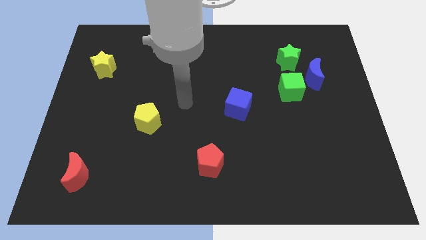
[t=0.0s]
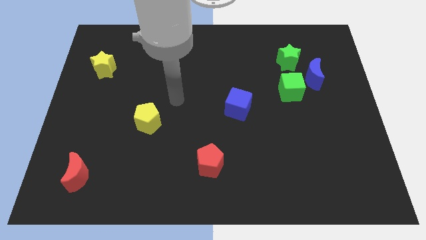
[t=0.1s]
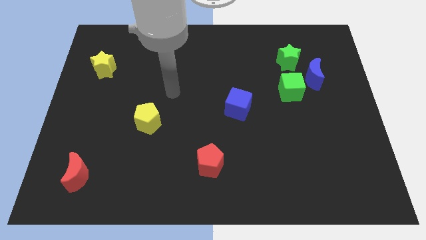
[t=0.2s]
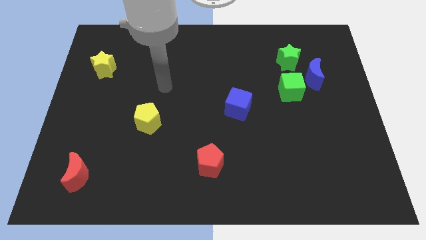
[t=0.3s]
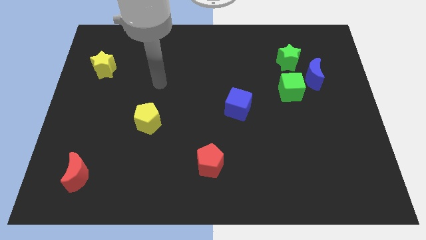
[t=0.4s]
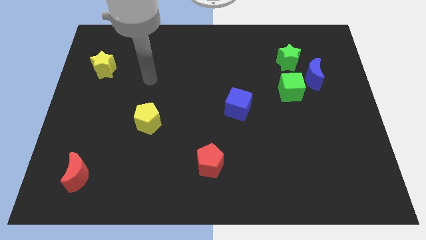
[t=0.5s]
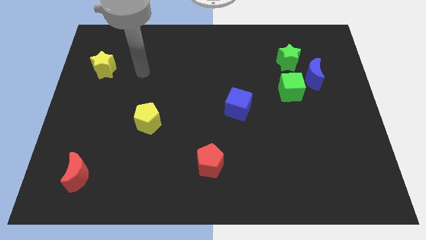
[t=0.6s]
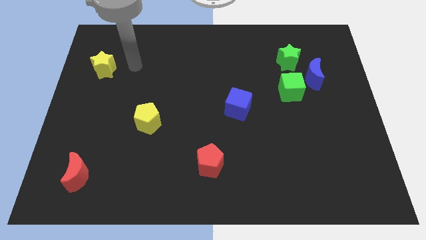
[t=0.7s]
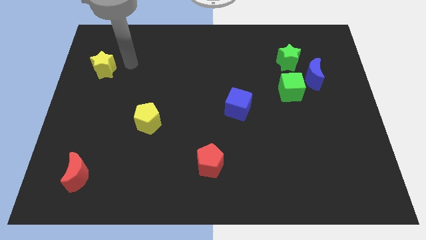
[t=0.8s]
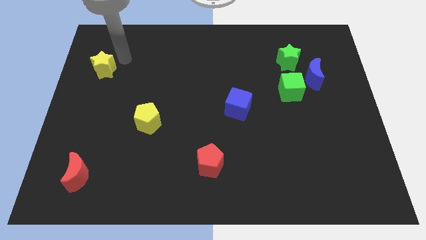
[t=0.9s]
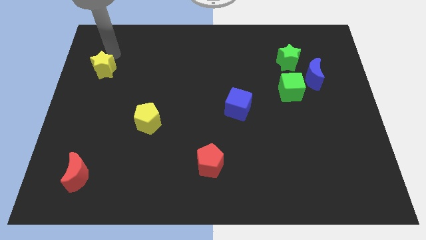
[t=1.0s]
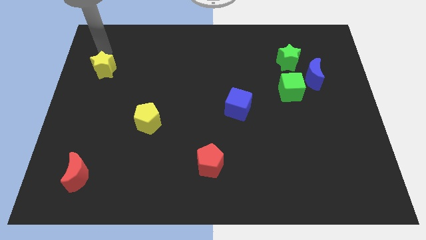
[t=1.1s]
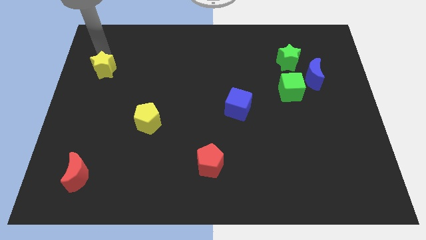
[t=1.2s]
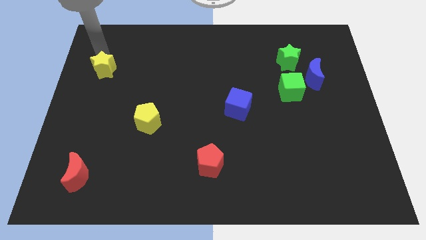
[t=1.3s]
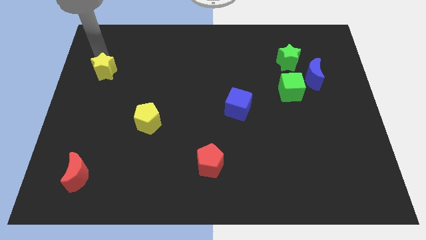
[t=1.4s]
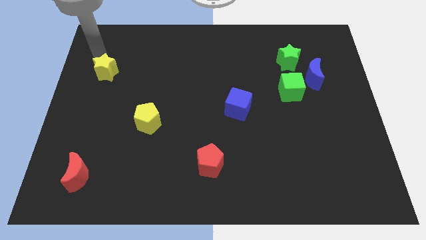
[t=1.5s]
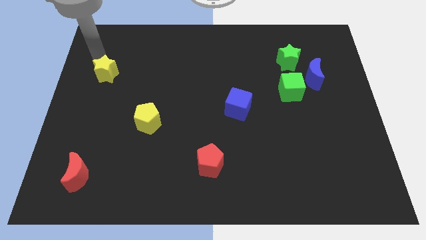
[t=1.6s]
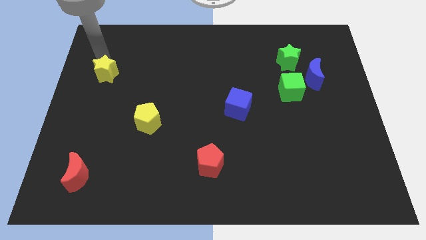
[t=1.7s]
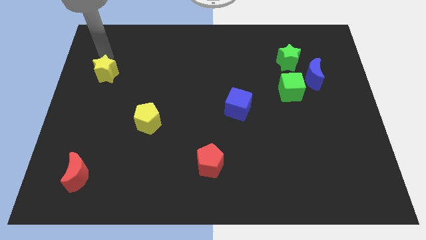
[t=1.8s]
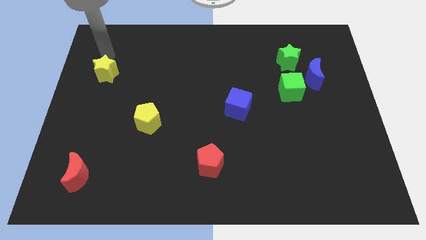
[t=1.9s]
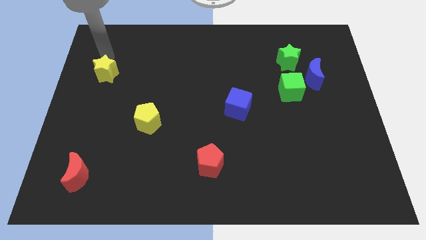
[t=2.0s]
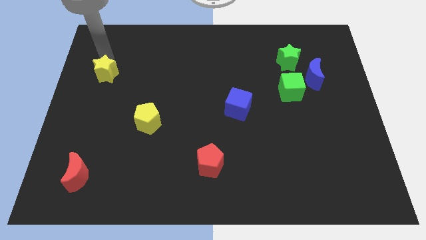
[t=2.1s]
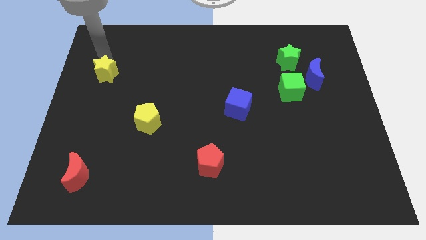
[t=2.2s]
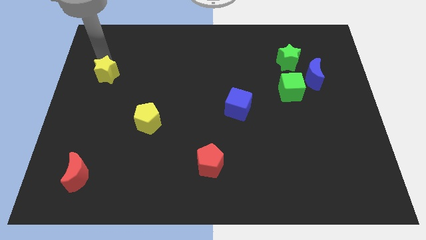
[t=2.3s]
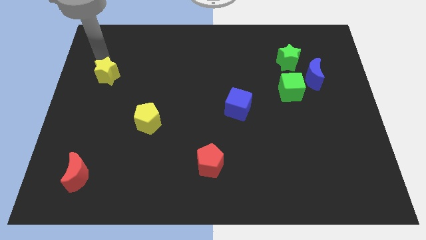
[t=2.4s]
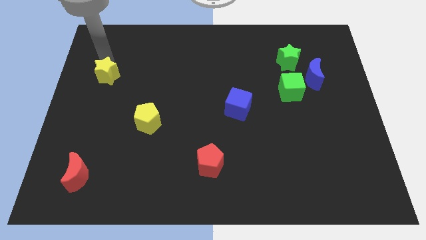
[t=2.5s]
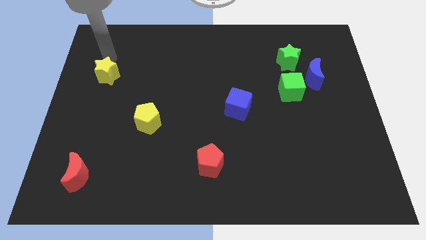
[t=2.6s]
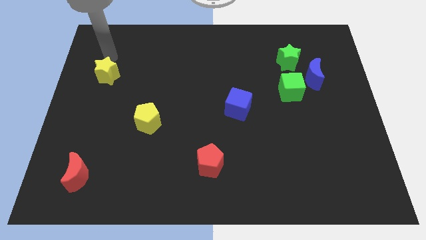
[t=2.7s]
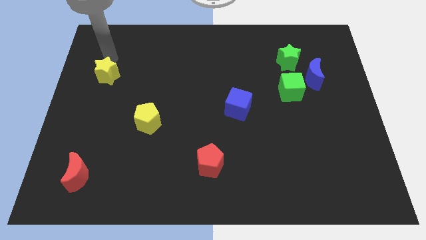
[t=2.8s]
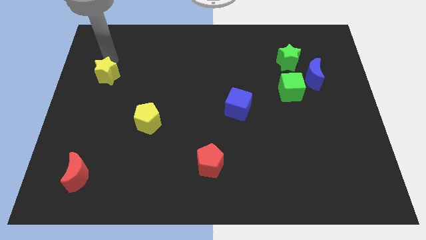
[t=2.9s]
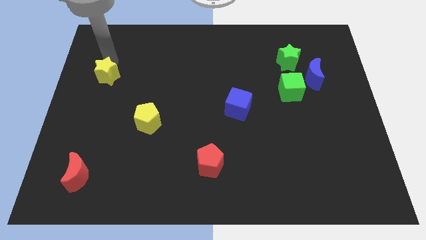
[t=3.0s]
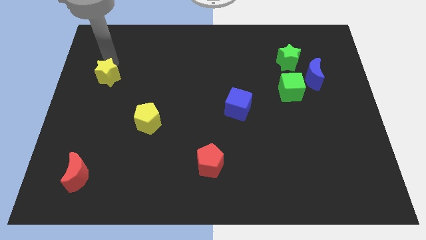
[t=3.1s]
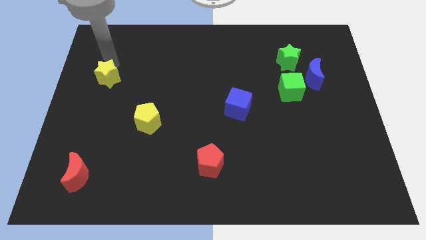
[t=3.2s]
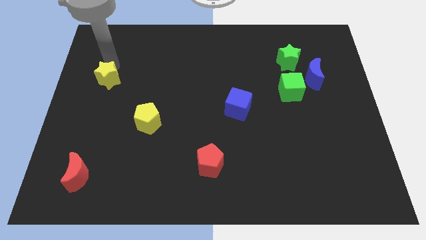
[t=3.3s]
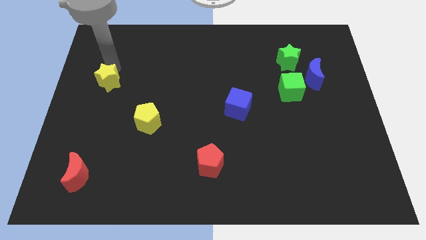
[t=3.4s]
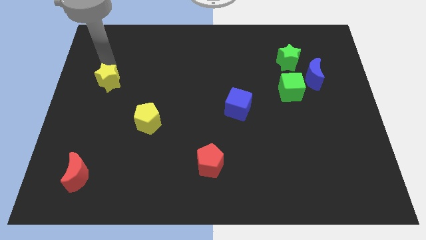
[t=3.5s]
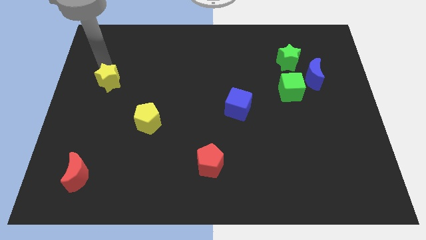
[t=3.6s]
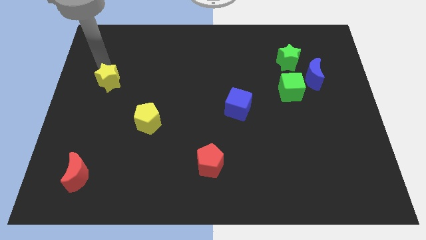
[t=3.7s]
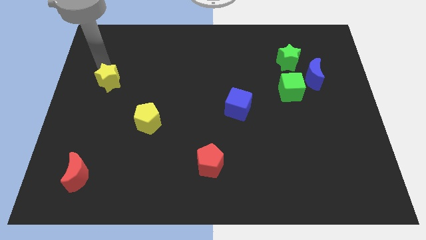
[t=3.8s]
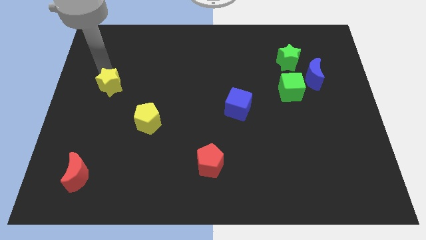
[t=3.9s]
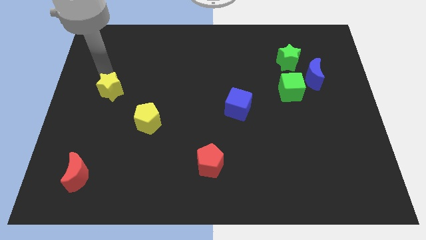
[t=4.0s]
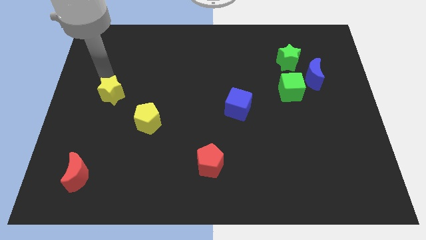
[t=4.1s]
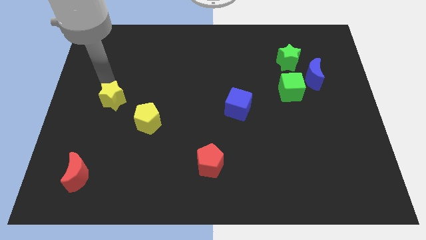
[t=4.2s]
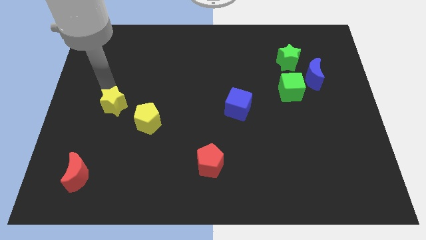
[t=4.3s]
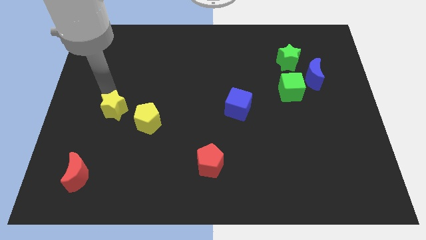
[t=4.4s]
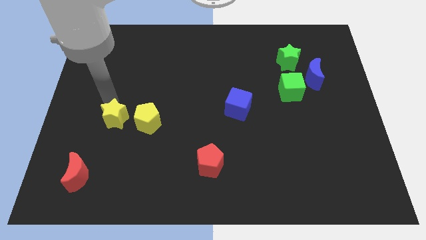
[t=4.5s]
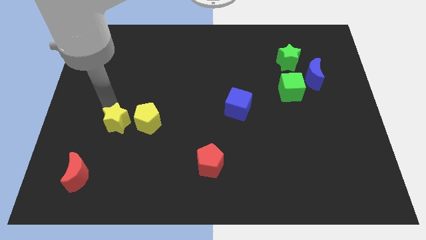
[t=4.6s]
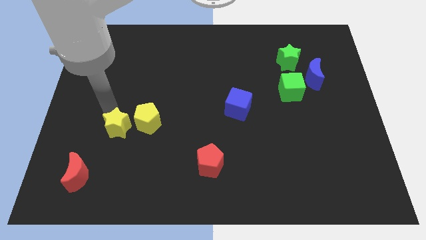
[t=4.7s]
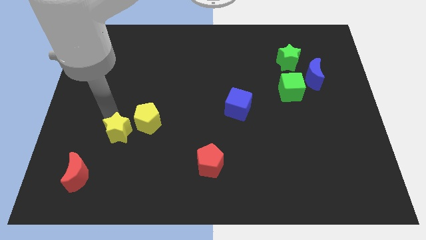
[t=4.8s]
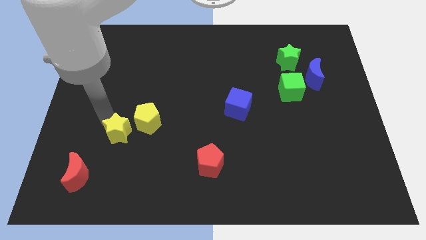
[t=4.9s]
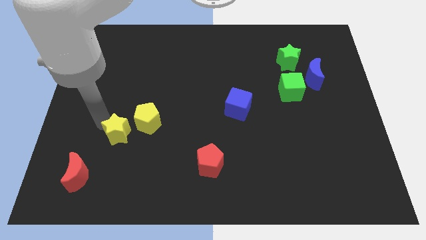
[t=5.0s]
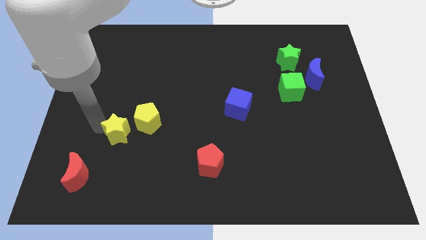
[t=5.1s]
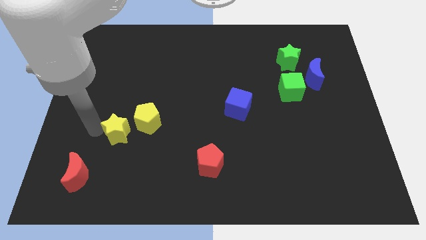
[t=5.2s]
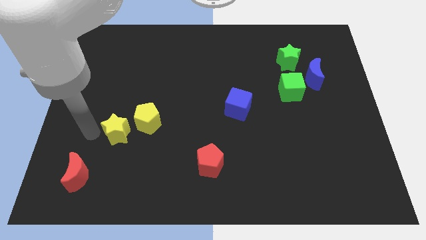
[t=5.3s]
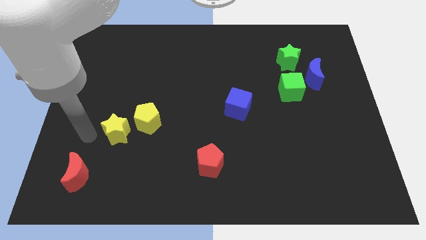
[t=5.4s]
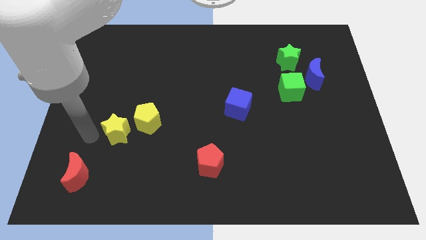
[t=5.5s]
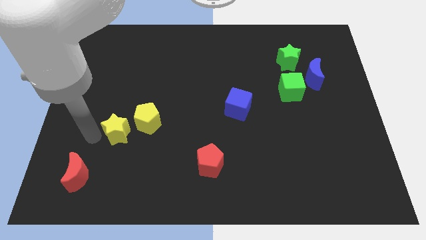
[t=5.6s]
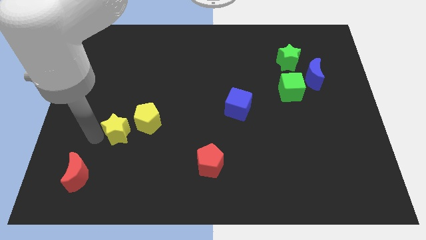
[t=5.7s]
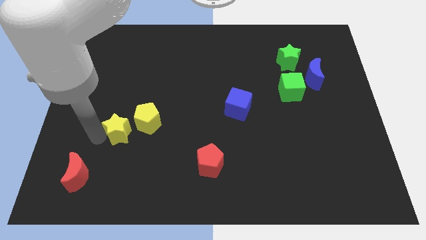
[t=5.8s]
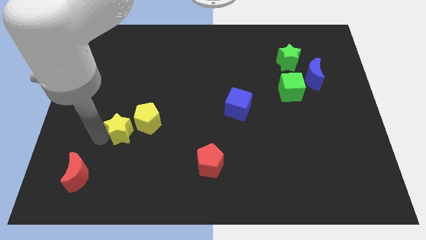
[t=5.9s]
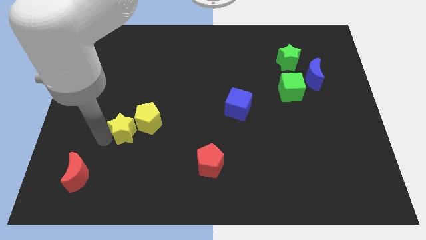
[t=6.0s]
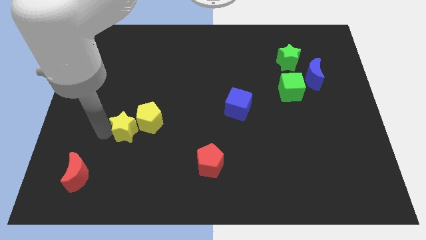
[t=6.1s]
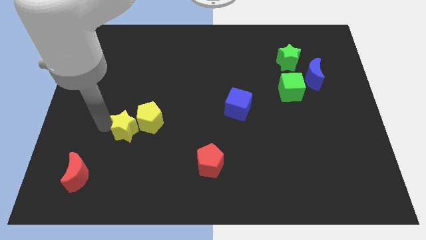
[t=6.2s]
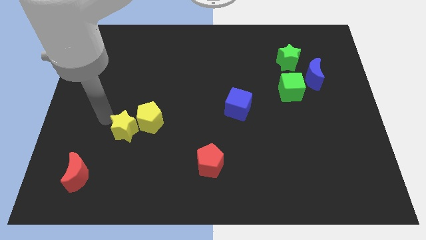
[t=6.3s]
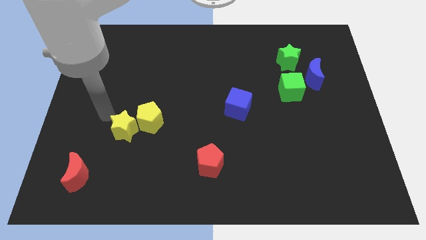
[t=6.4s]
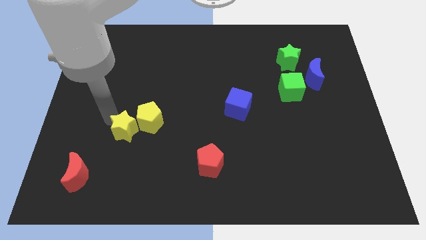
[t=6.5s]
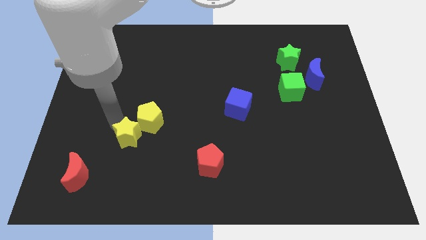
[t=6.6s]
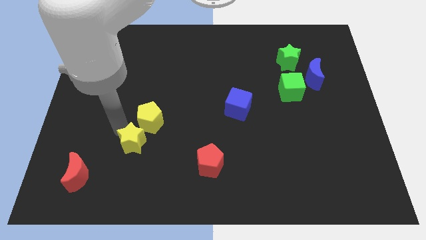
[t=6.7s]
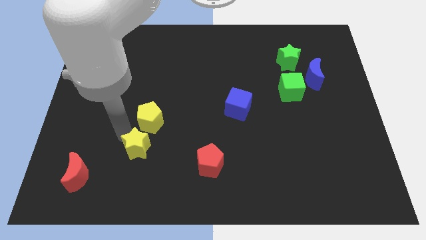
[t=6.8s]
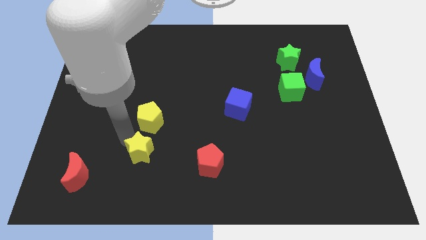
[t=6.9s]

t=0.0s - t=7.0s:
move the yellow star to the left side of the red pentagon

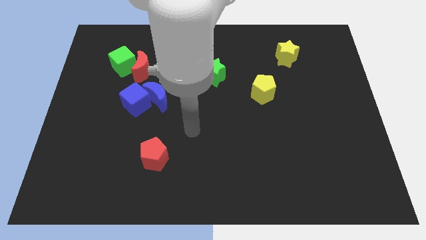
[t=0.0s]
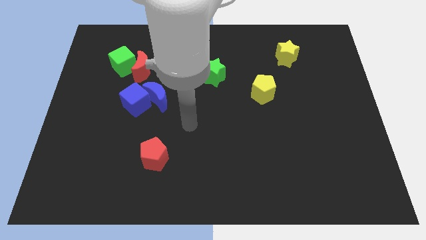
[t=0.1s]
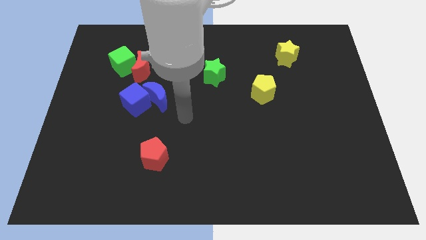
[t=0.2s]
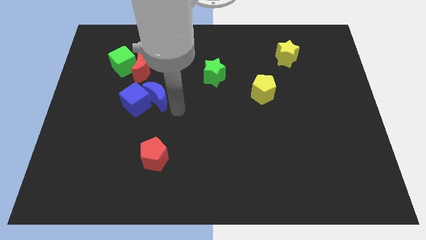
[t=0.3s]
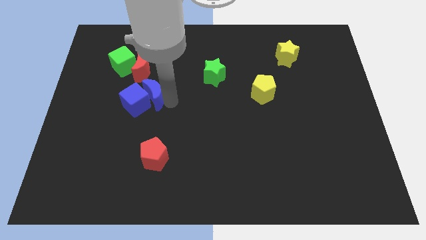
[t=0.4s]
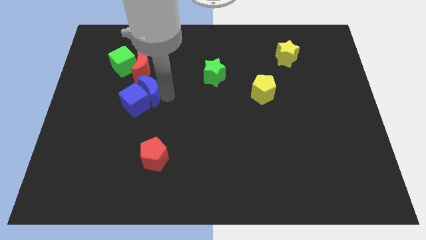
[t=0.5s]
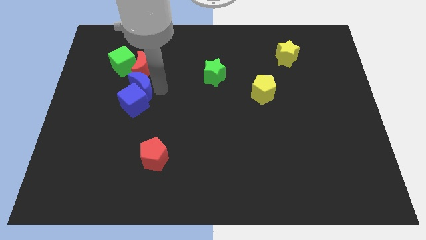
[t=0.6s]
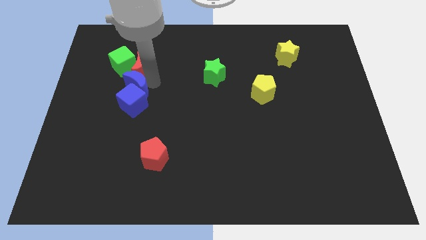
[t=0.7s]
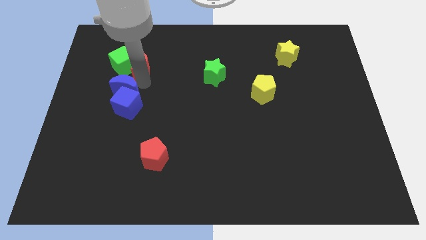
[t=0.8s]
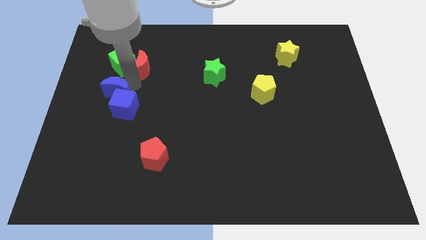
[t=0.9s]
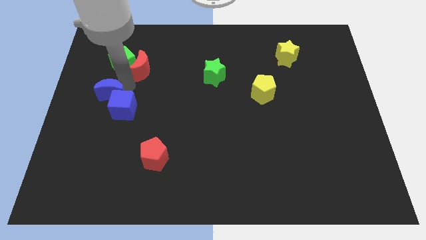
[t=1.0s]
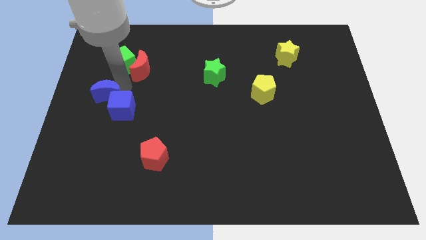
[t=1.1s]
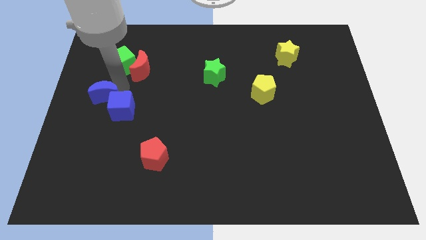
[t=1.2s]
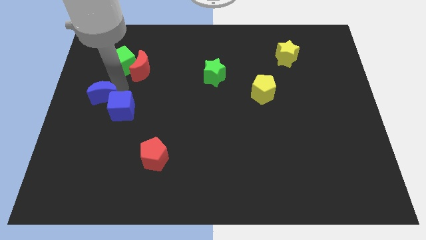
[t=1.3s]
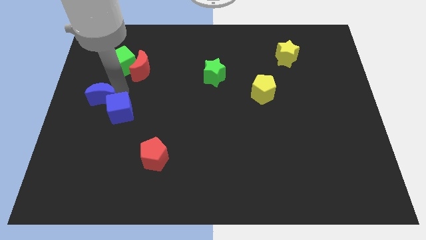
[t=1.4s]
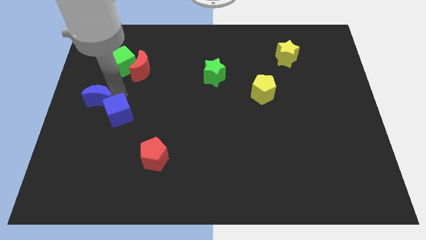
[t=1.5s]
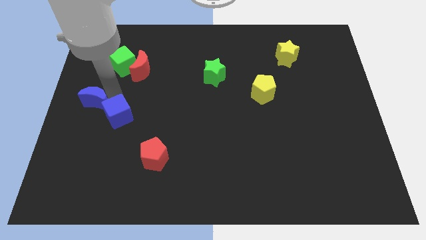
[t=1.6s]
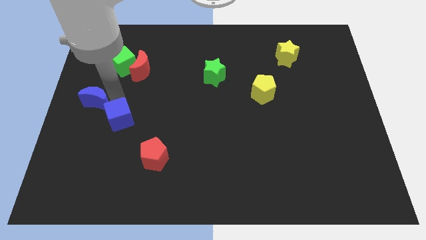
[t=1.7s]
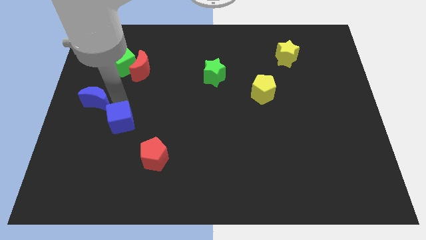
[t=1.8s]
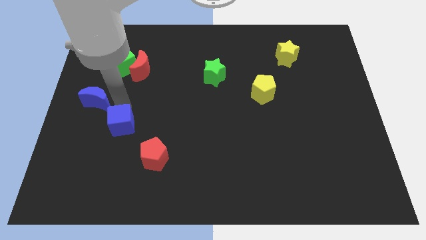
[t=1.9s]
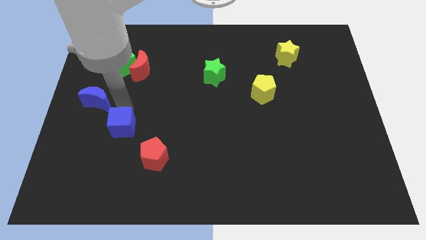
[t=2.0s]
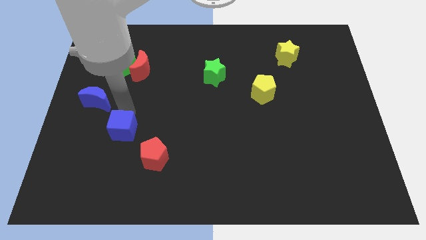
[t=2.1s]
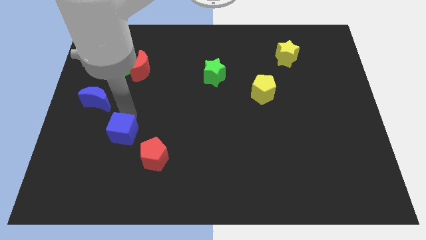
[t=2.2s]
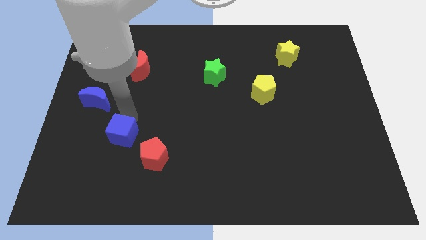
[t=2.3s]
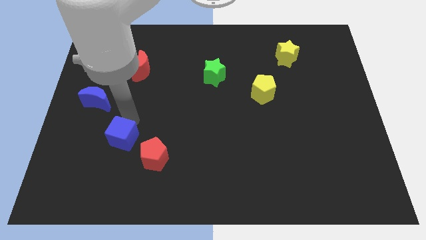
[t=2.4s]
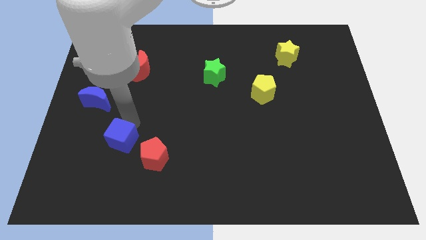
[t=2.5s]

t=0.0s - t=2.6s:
put the blue cube to the left side of the red pentagon
